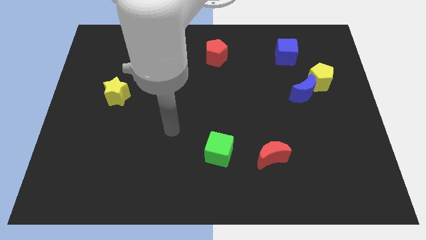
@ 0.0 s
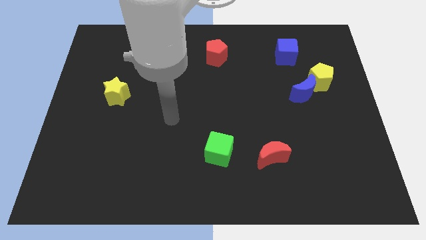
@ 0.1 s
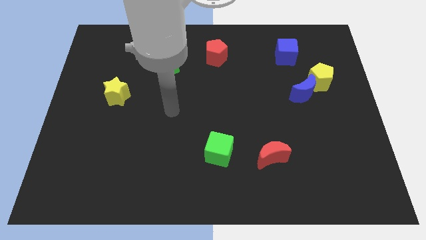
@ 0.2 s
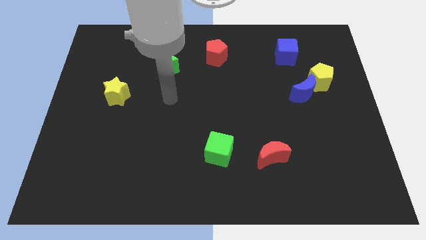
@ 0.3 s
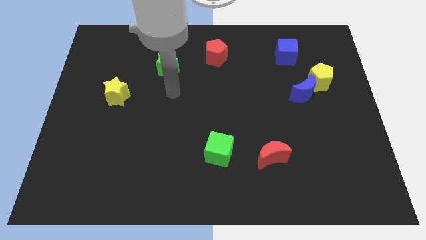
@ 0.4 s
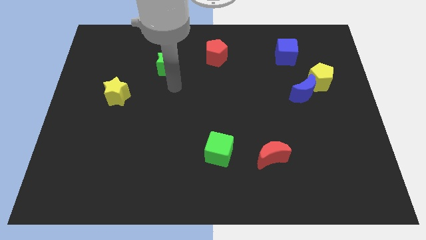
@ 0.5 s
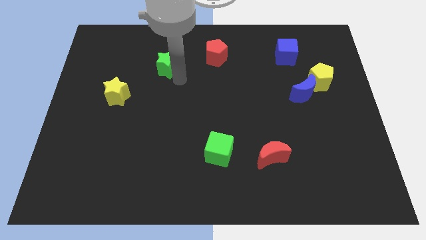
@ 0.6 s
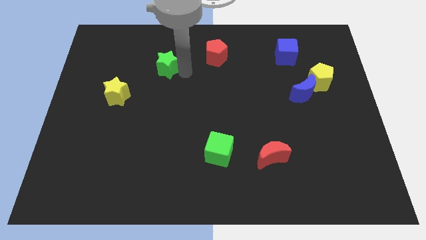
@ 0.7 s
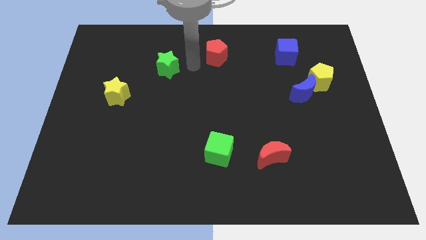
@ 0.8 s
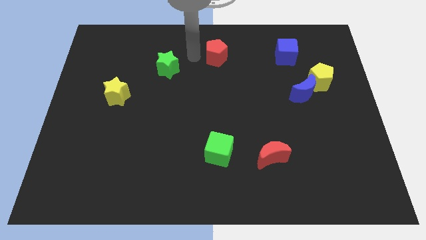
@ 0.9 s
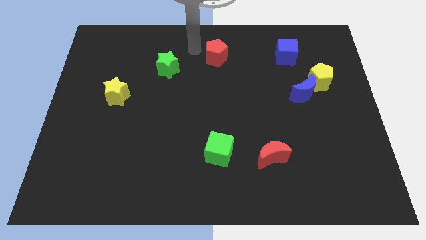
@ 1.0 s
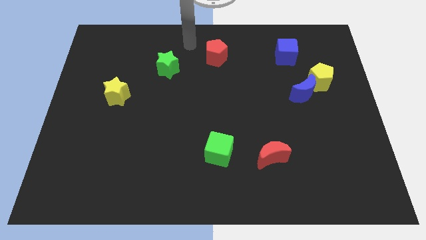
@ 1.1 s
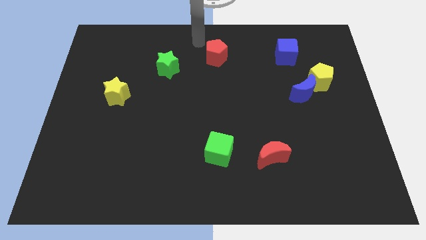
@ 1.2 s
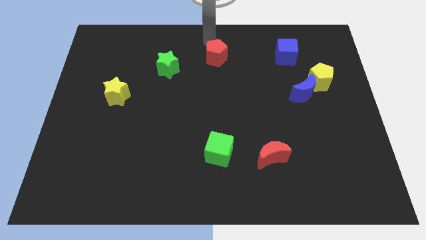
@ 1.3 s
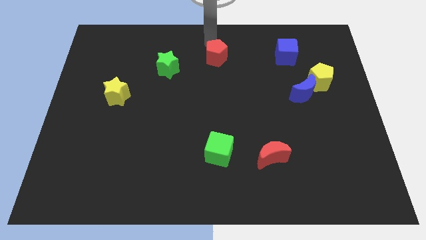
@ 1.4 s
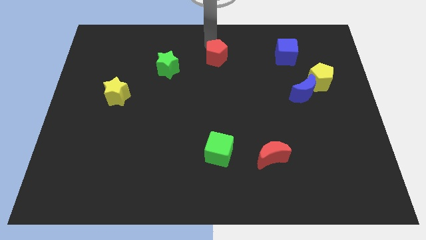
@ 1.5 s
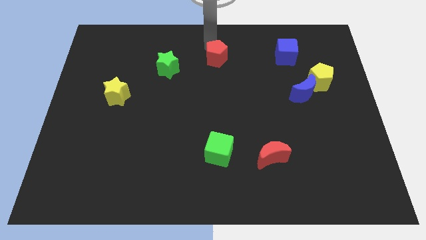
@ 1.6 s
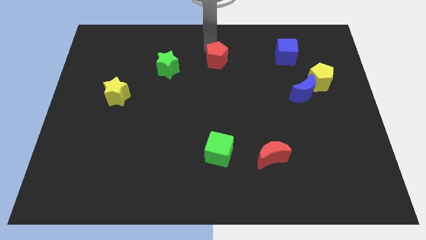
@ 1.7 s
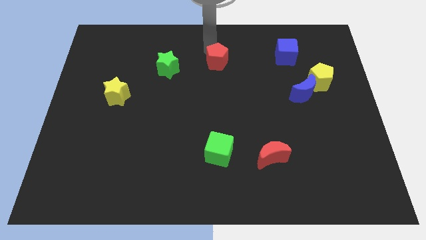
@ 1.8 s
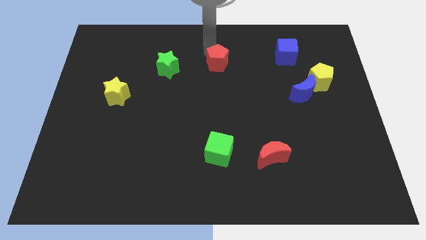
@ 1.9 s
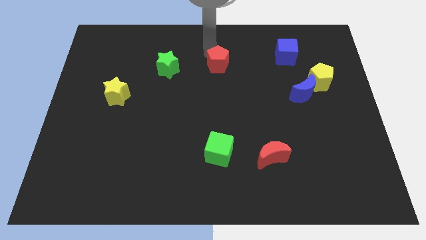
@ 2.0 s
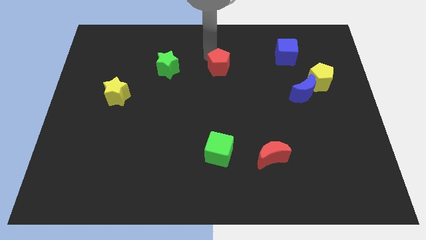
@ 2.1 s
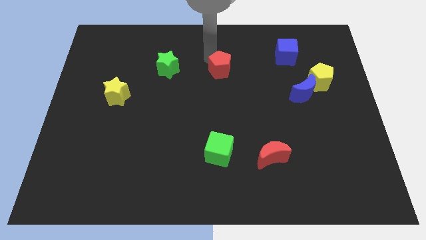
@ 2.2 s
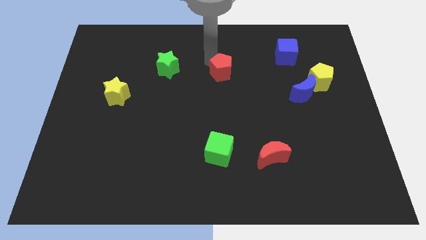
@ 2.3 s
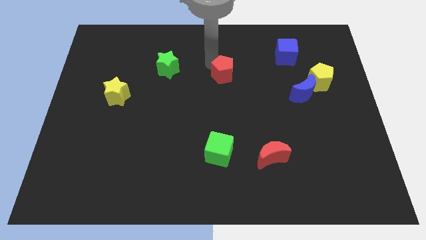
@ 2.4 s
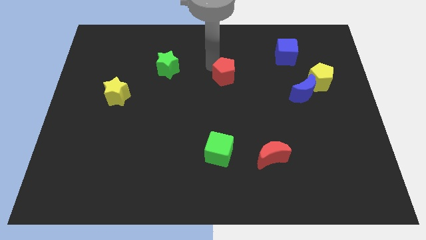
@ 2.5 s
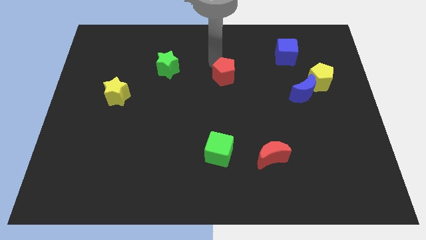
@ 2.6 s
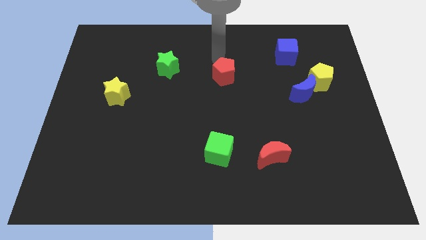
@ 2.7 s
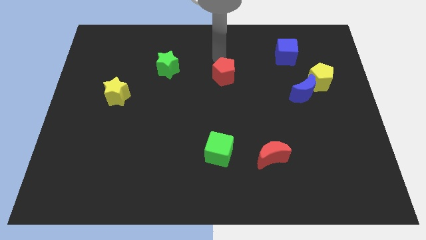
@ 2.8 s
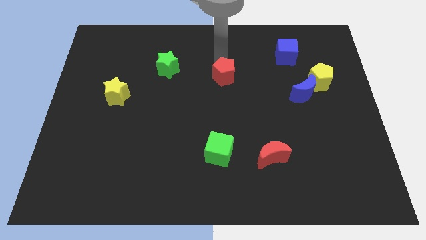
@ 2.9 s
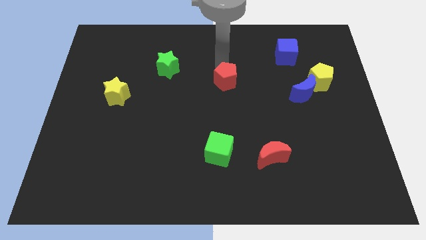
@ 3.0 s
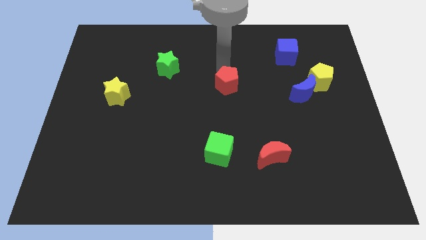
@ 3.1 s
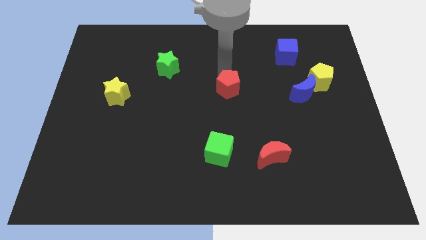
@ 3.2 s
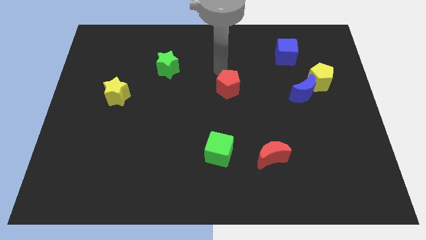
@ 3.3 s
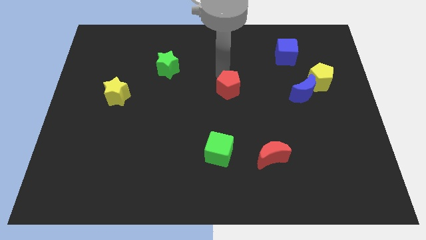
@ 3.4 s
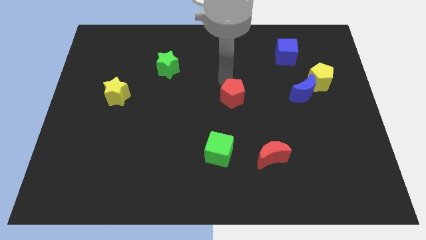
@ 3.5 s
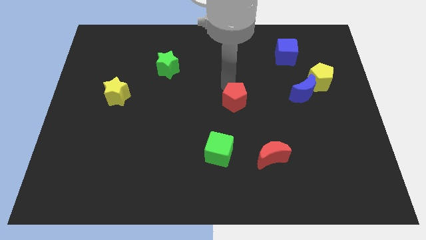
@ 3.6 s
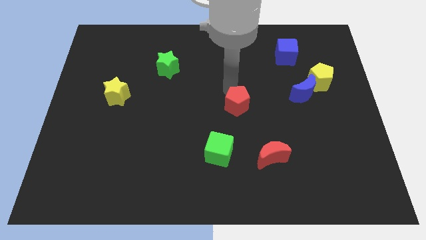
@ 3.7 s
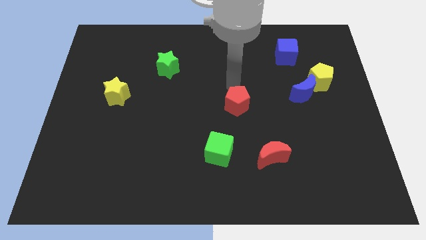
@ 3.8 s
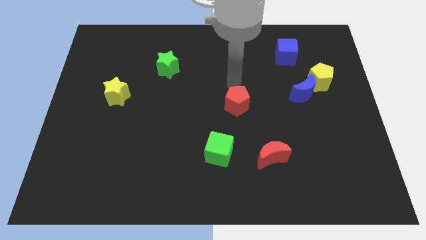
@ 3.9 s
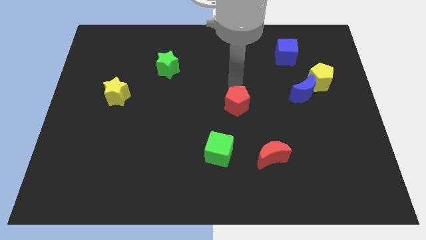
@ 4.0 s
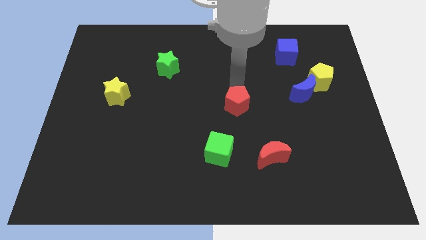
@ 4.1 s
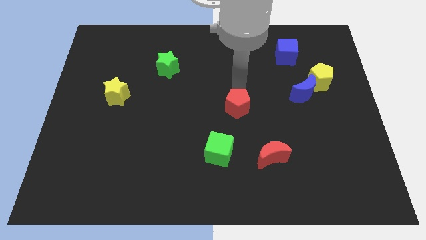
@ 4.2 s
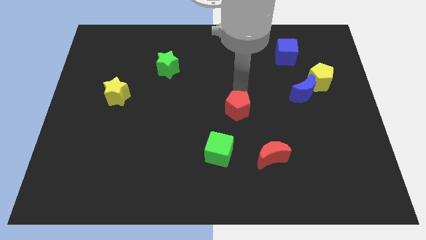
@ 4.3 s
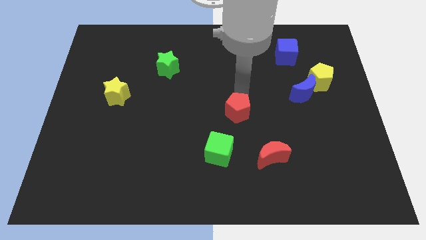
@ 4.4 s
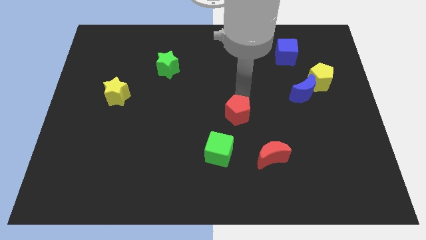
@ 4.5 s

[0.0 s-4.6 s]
put the red pentagon to the top right side of the green cube

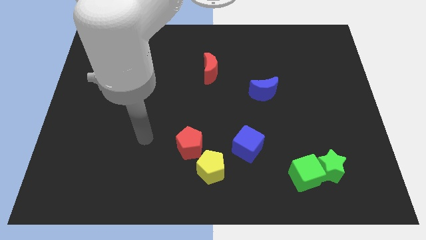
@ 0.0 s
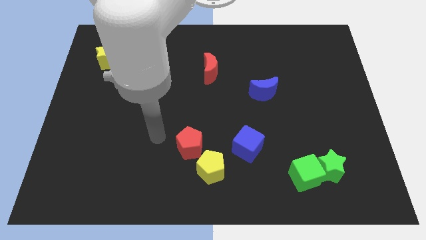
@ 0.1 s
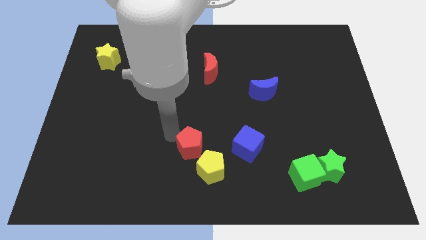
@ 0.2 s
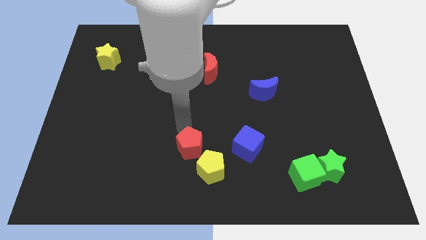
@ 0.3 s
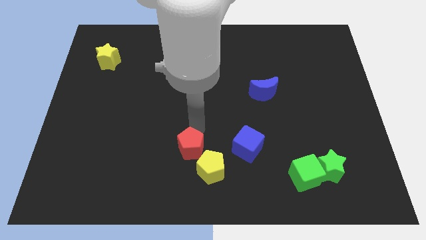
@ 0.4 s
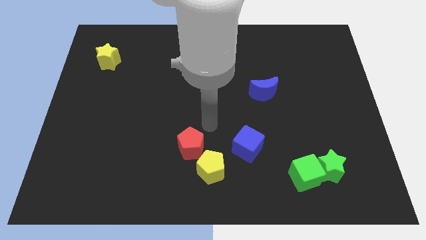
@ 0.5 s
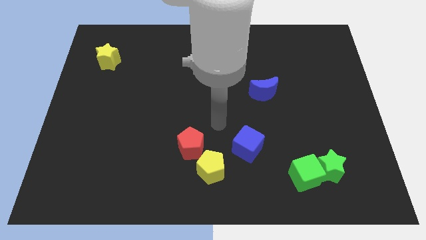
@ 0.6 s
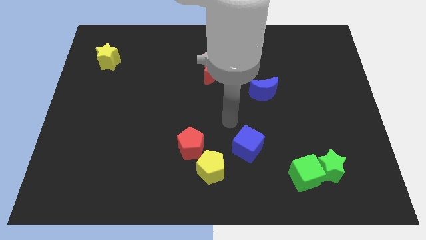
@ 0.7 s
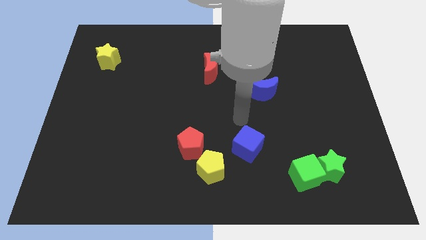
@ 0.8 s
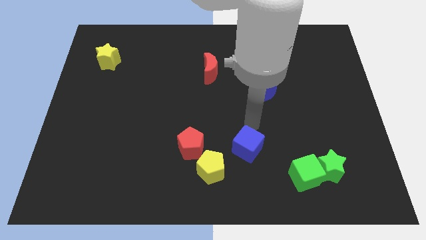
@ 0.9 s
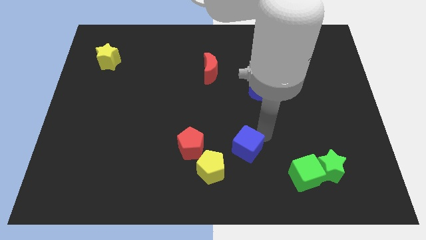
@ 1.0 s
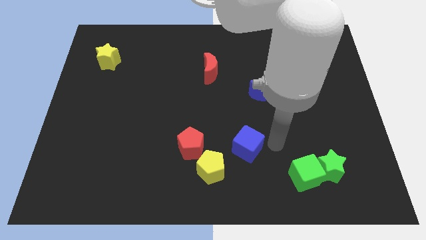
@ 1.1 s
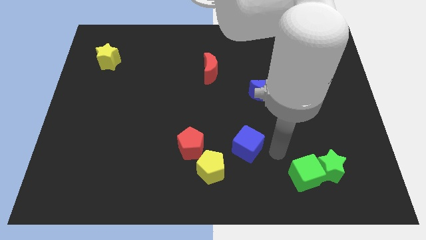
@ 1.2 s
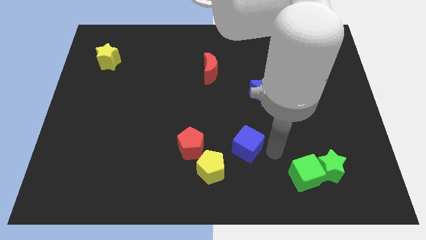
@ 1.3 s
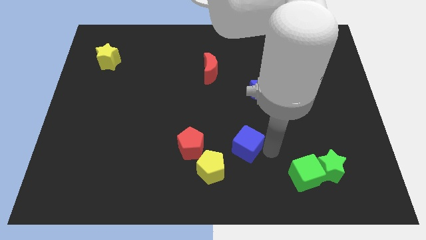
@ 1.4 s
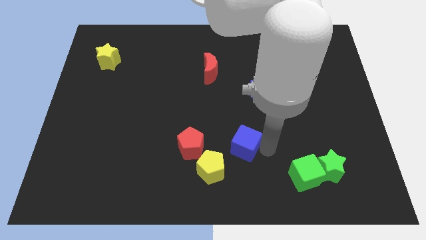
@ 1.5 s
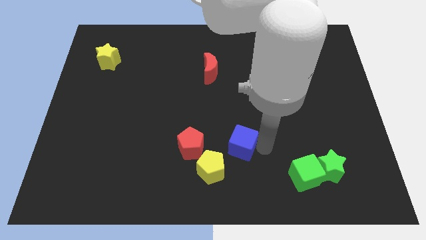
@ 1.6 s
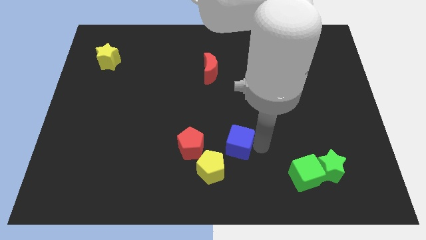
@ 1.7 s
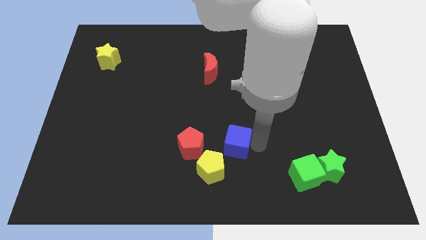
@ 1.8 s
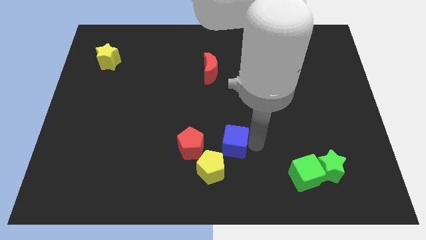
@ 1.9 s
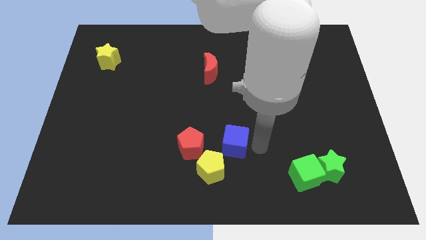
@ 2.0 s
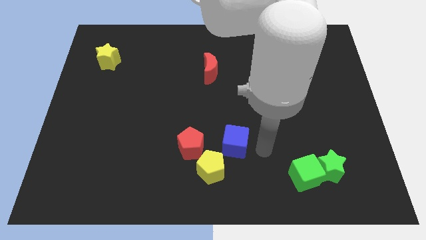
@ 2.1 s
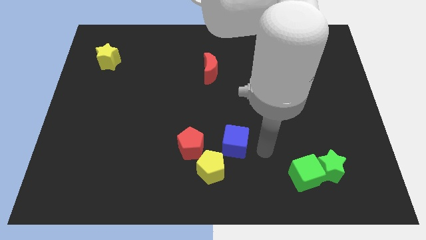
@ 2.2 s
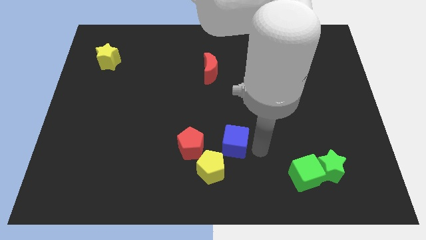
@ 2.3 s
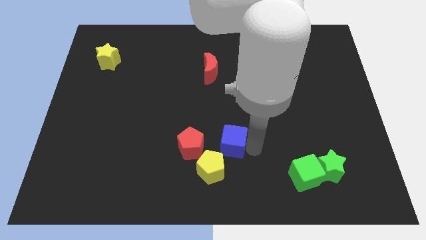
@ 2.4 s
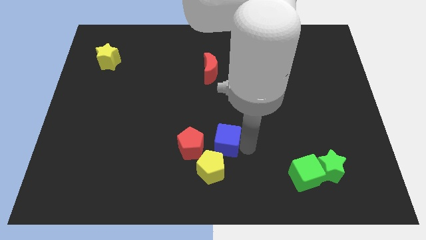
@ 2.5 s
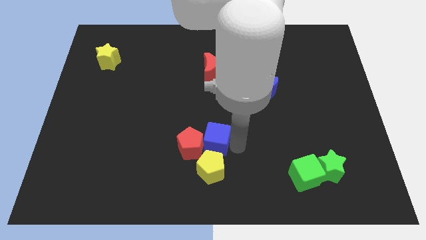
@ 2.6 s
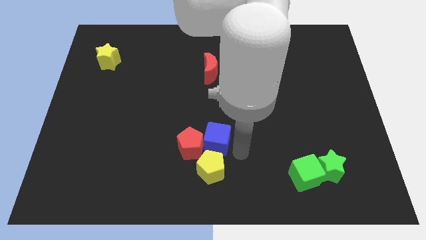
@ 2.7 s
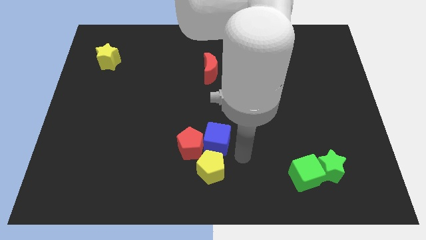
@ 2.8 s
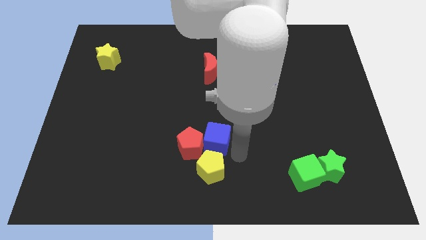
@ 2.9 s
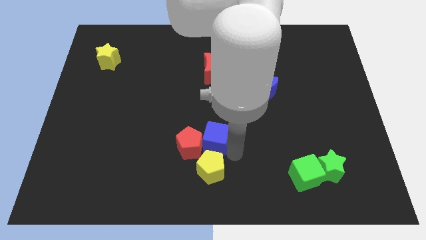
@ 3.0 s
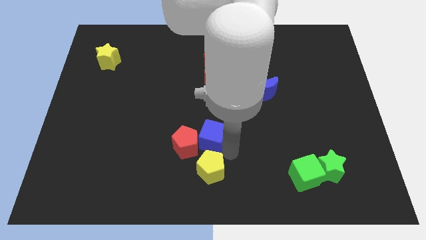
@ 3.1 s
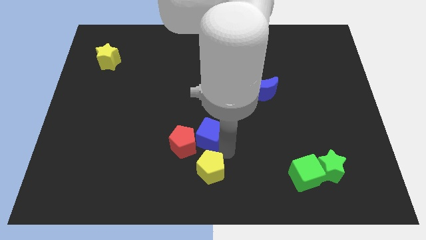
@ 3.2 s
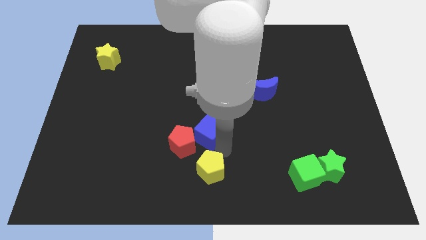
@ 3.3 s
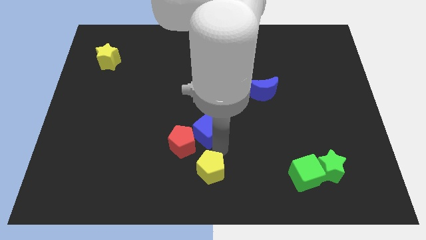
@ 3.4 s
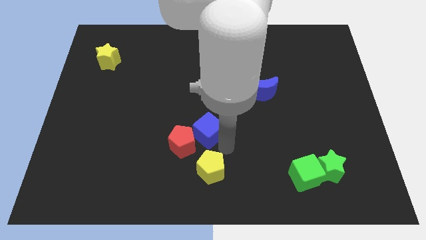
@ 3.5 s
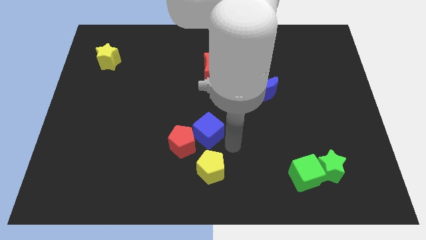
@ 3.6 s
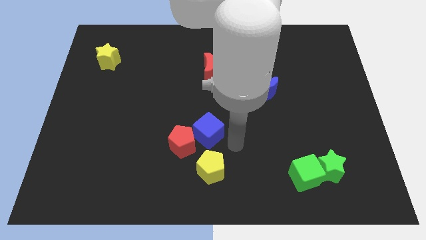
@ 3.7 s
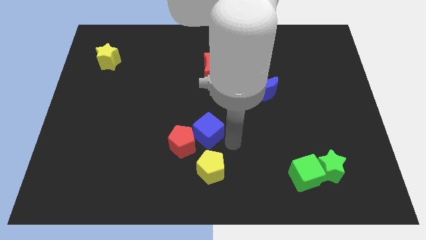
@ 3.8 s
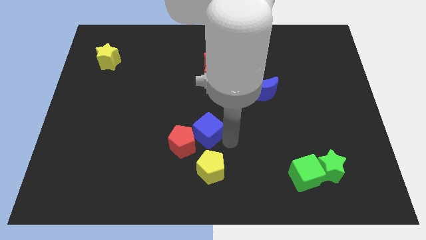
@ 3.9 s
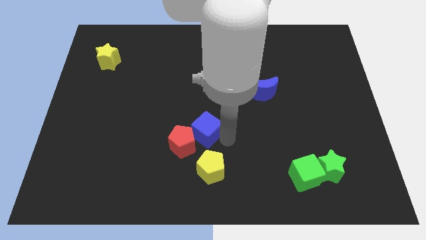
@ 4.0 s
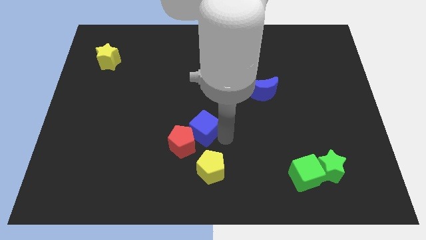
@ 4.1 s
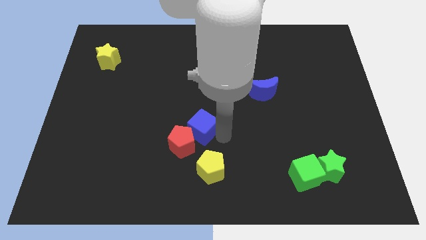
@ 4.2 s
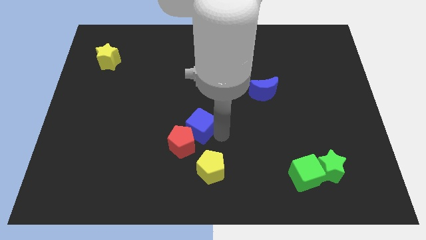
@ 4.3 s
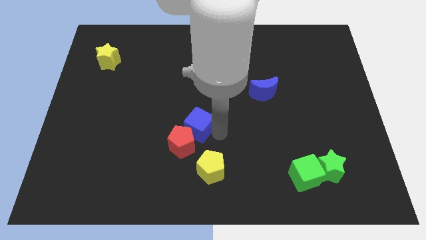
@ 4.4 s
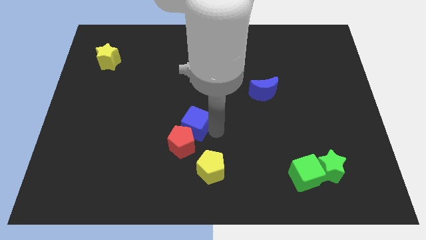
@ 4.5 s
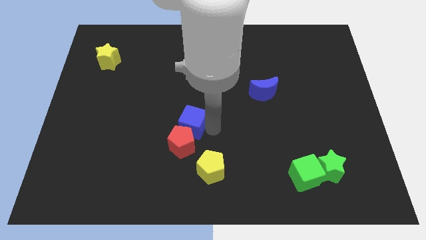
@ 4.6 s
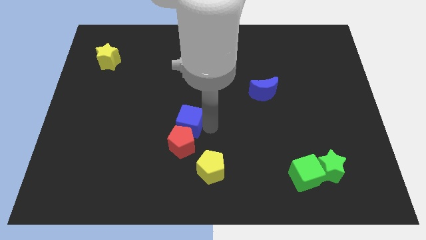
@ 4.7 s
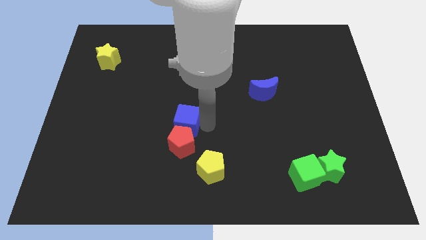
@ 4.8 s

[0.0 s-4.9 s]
move the blue cube diagonally up and to the left of the red pentagon
